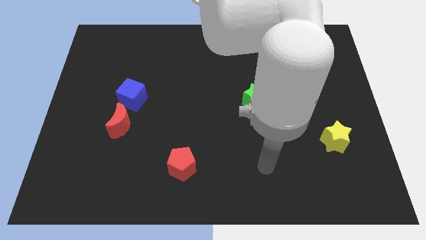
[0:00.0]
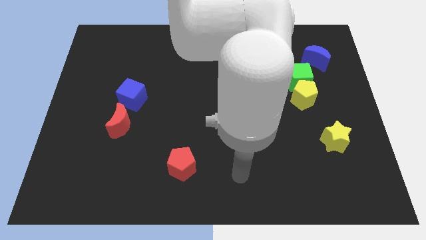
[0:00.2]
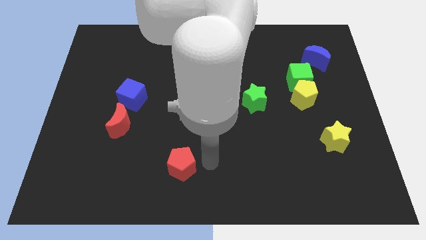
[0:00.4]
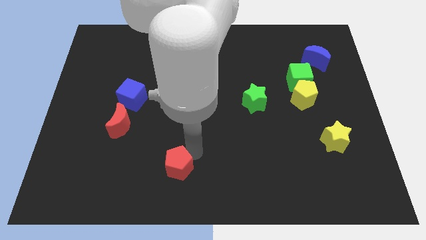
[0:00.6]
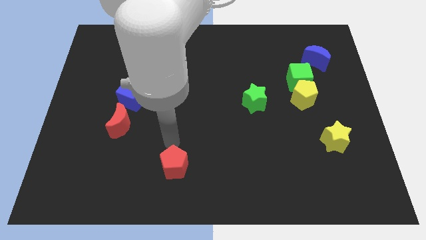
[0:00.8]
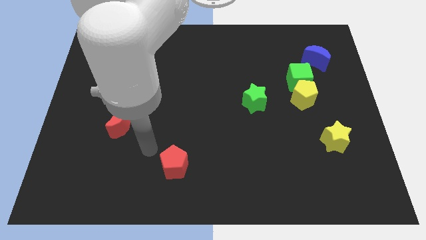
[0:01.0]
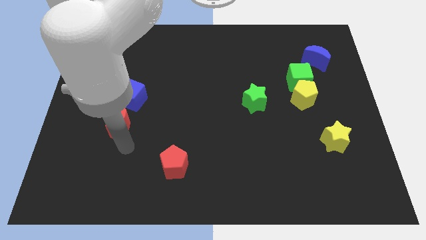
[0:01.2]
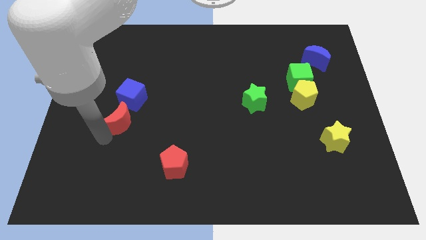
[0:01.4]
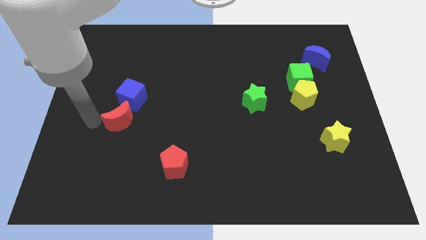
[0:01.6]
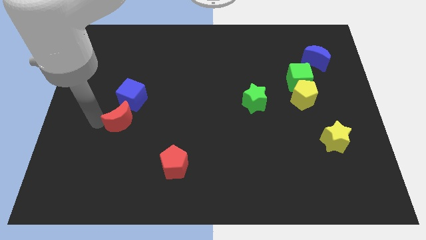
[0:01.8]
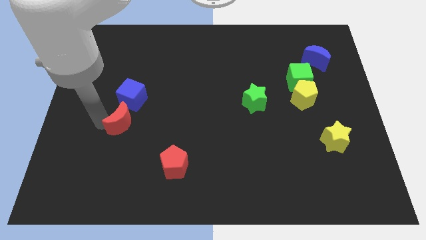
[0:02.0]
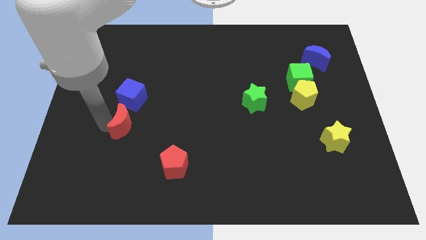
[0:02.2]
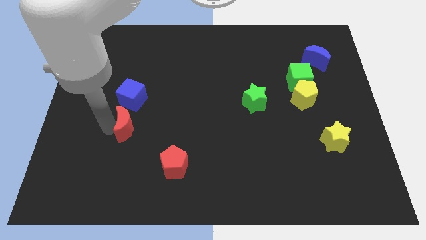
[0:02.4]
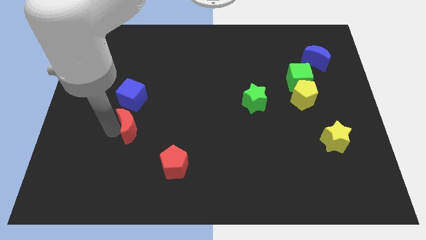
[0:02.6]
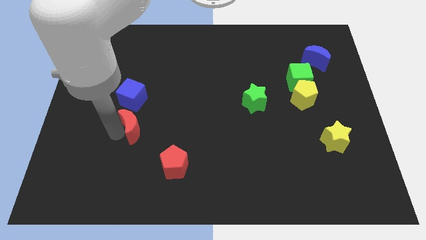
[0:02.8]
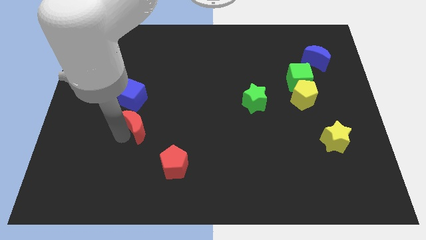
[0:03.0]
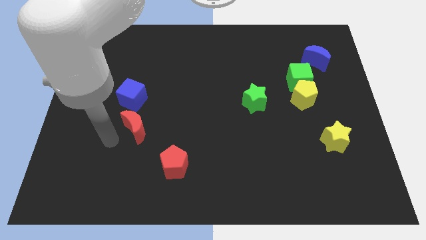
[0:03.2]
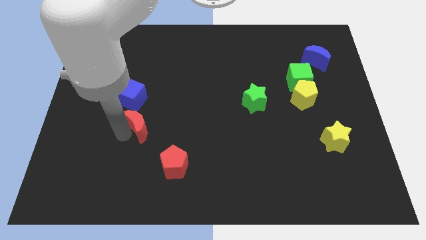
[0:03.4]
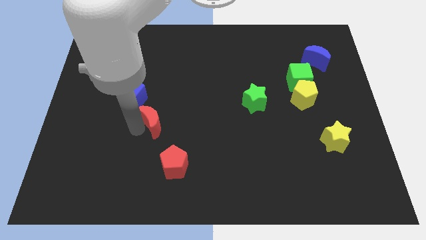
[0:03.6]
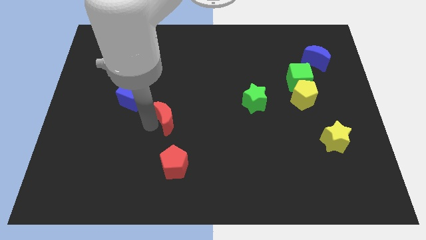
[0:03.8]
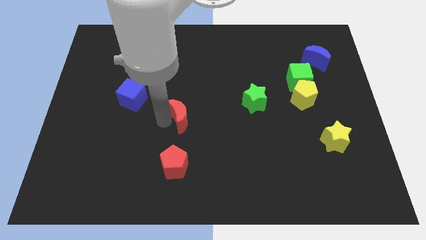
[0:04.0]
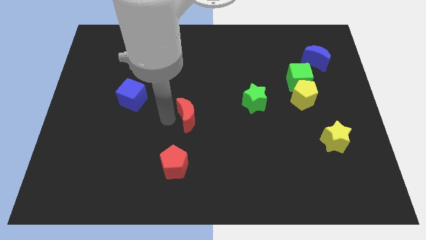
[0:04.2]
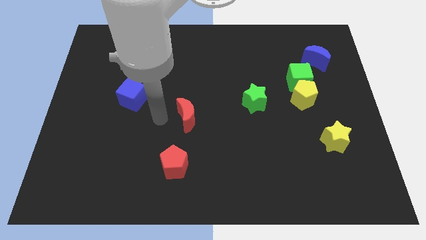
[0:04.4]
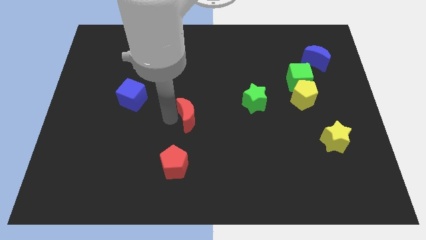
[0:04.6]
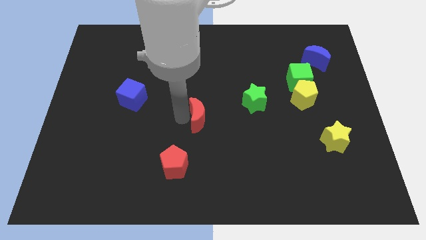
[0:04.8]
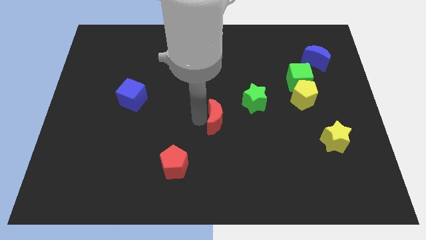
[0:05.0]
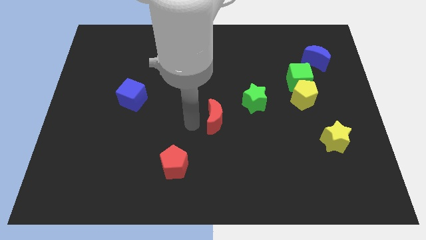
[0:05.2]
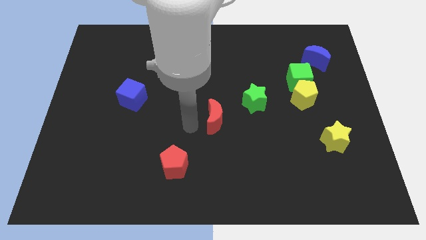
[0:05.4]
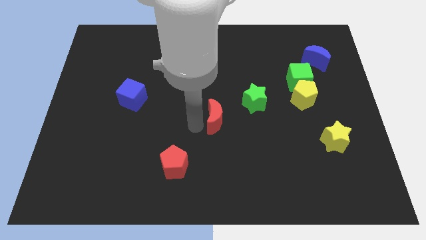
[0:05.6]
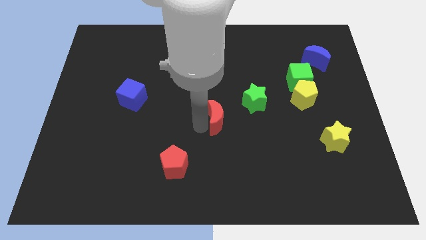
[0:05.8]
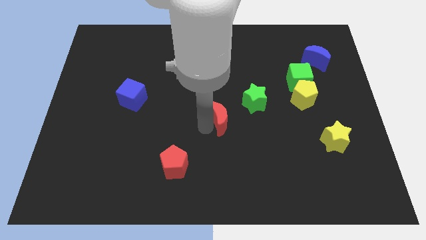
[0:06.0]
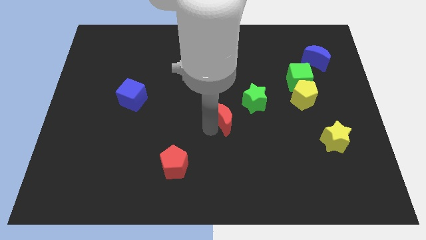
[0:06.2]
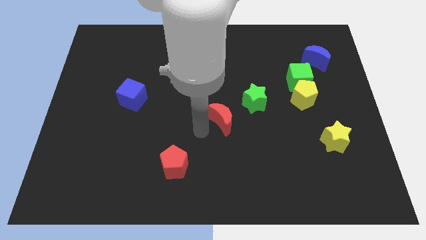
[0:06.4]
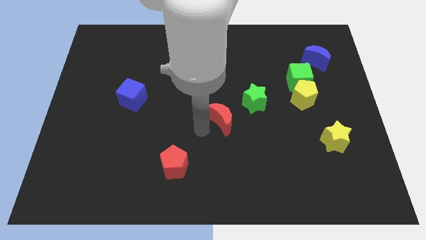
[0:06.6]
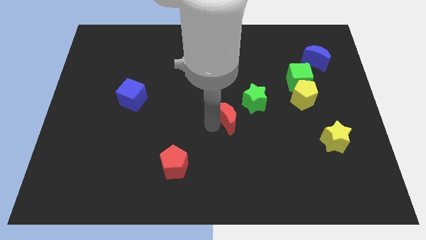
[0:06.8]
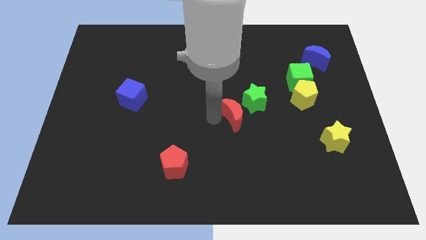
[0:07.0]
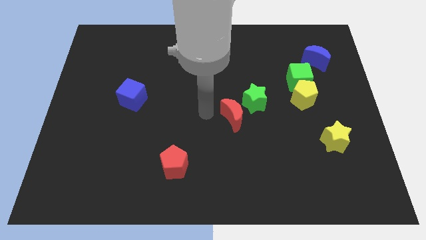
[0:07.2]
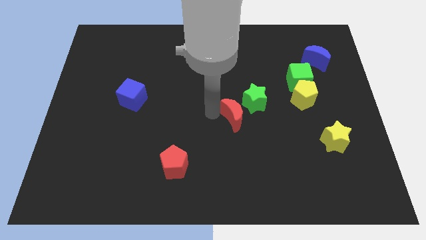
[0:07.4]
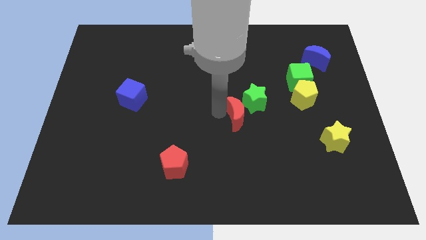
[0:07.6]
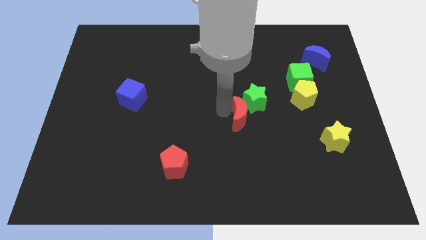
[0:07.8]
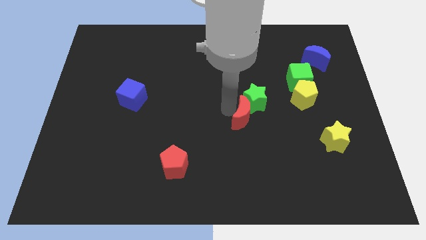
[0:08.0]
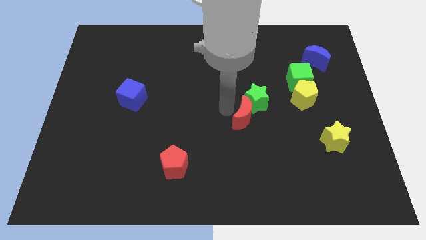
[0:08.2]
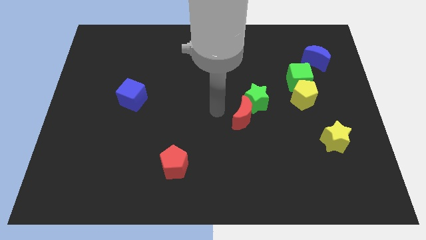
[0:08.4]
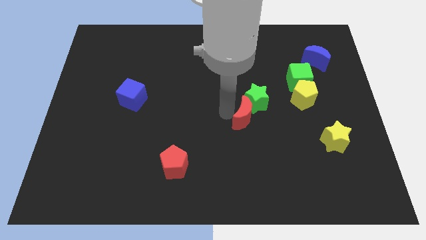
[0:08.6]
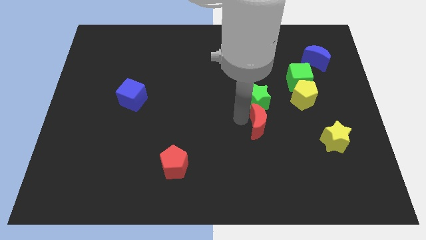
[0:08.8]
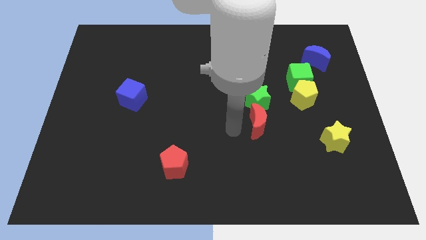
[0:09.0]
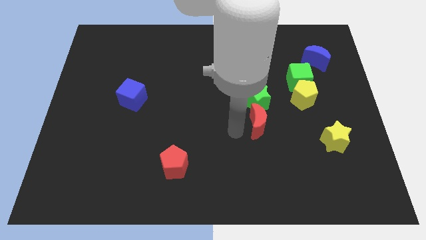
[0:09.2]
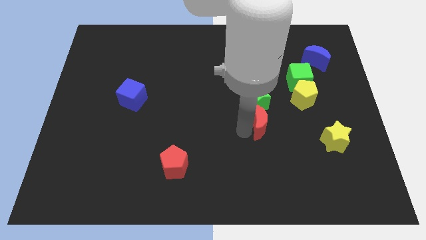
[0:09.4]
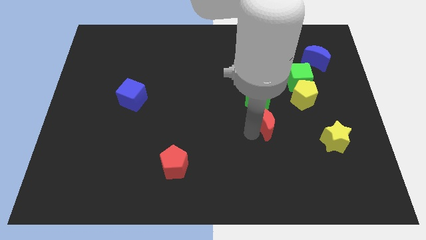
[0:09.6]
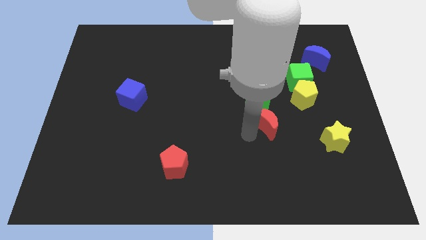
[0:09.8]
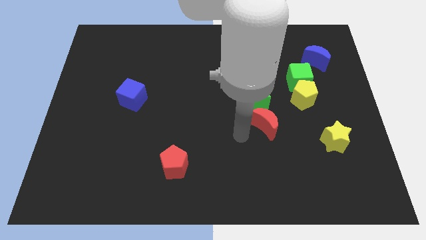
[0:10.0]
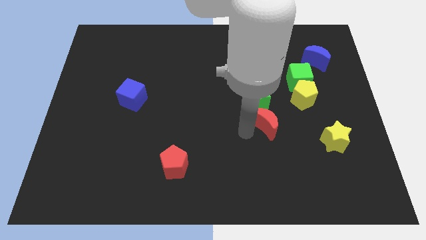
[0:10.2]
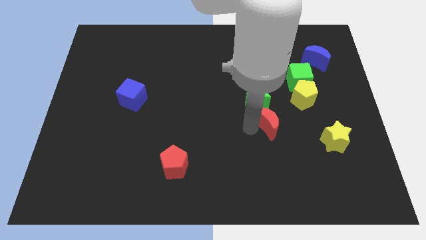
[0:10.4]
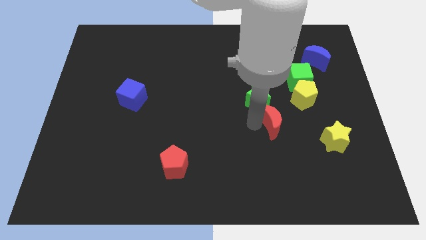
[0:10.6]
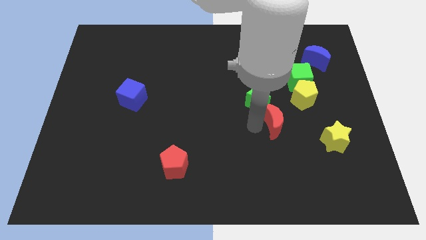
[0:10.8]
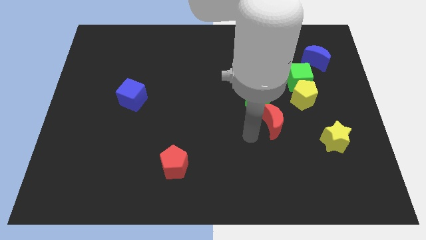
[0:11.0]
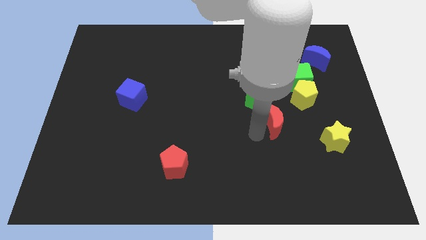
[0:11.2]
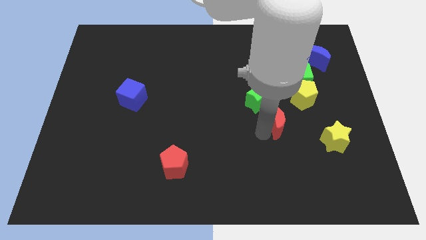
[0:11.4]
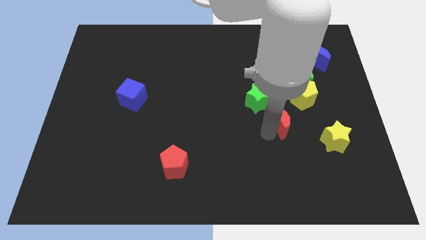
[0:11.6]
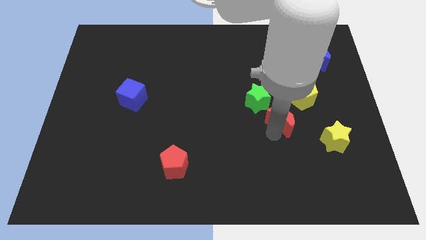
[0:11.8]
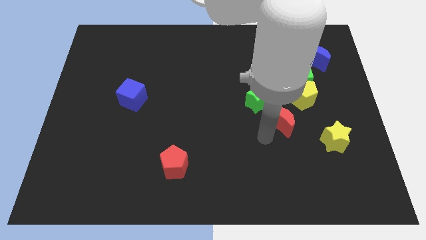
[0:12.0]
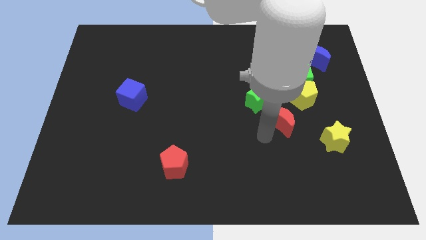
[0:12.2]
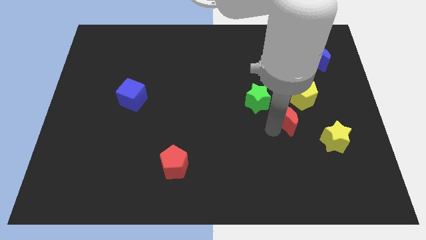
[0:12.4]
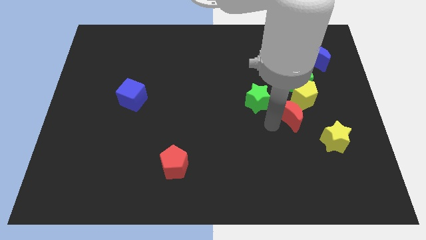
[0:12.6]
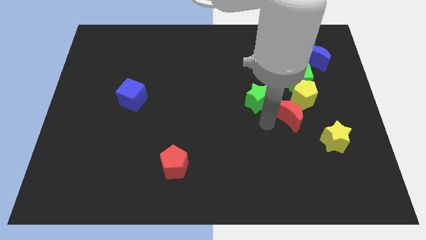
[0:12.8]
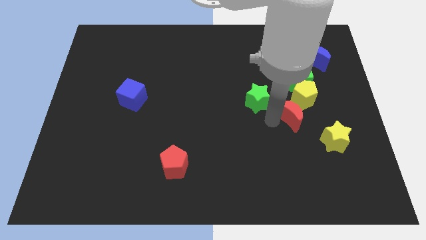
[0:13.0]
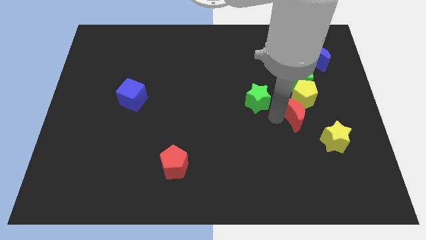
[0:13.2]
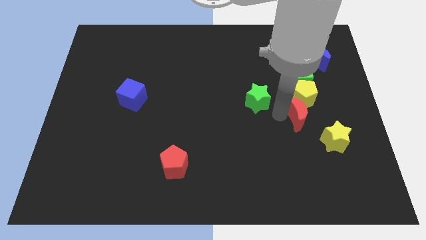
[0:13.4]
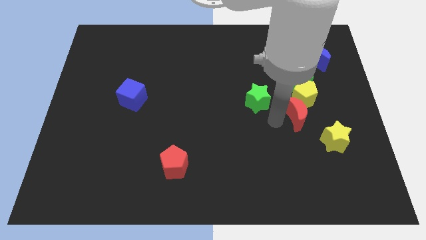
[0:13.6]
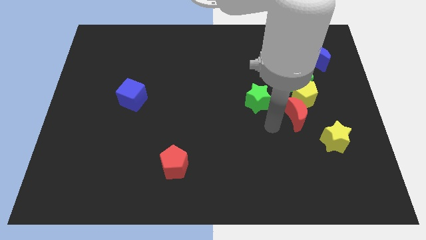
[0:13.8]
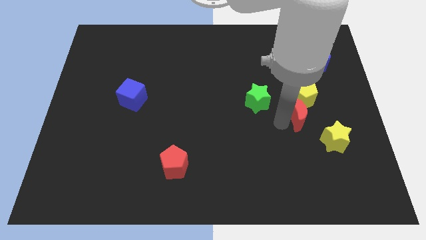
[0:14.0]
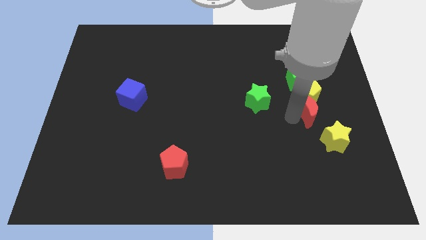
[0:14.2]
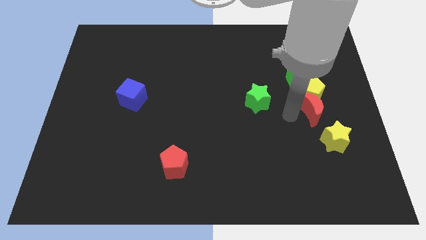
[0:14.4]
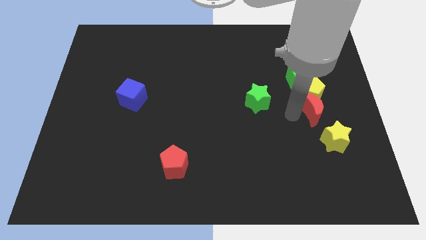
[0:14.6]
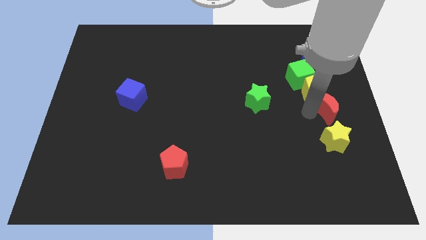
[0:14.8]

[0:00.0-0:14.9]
push the red moon to the right side of the board

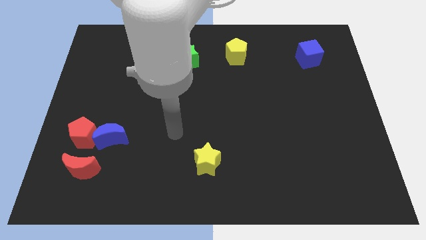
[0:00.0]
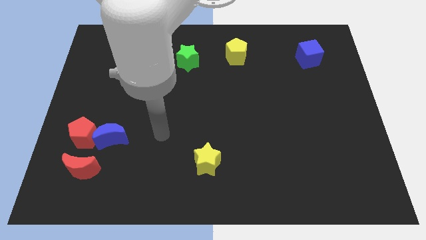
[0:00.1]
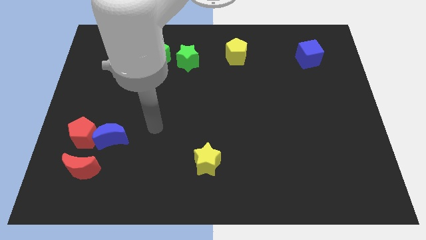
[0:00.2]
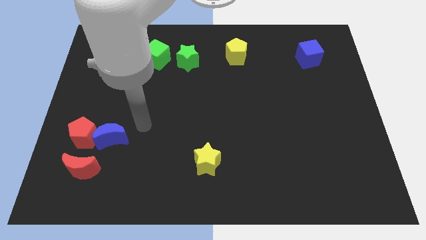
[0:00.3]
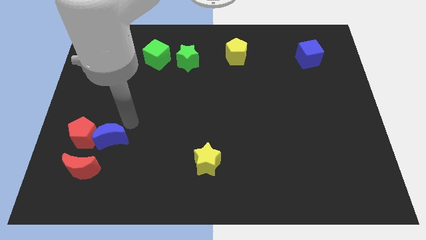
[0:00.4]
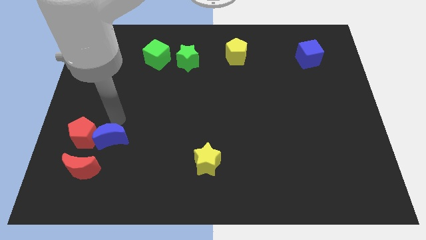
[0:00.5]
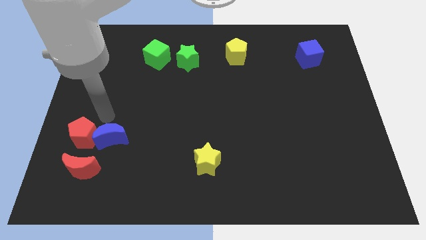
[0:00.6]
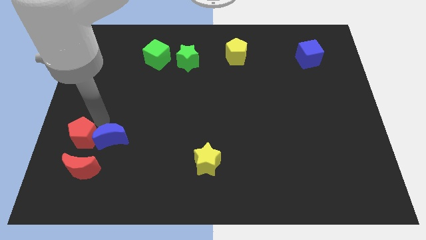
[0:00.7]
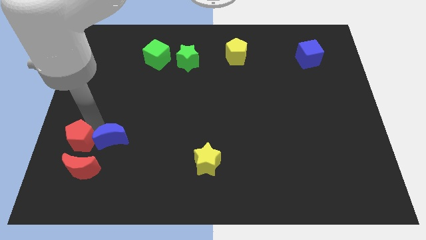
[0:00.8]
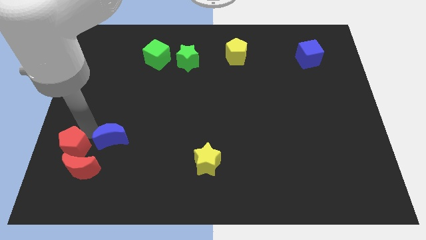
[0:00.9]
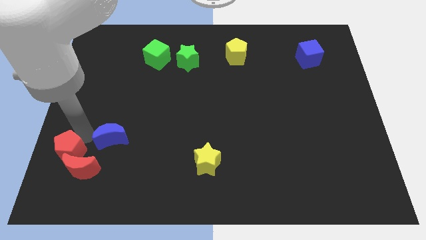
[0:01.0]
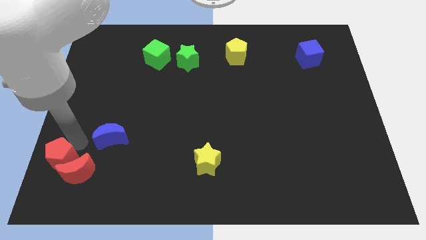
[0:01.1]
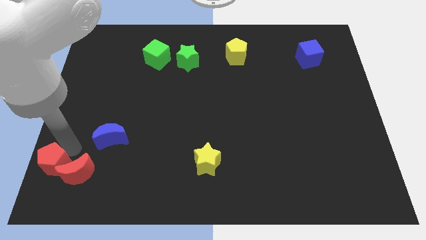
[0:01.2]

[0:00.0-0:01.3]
slide the red pentagon to the bottom left of the board
